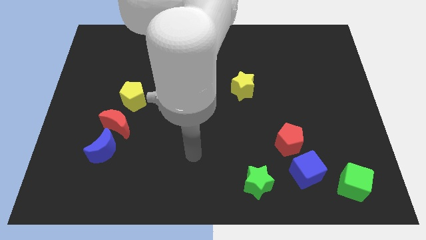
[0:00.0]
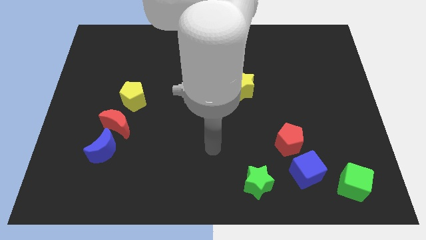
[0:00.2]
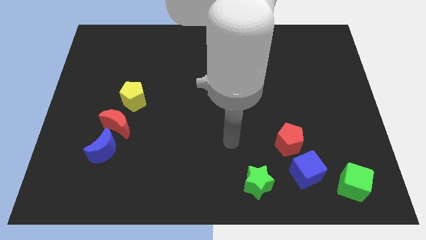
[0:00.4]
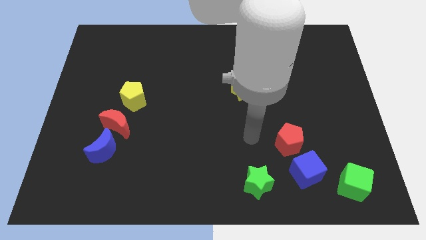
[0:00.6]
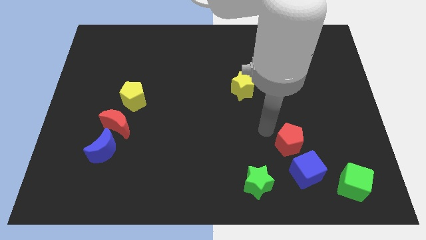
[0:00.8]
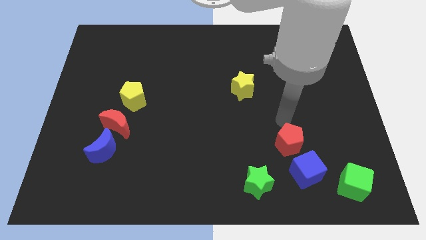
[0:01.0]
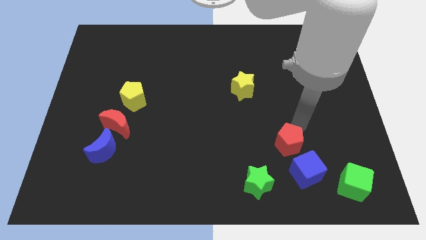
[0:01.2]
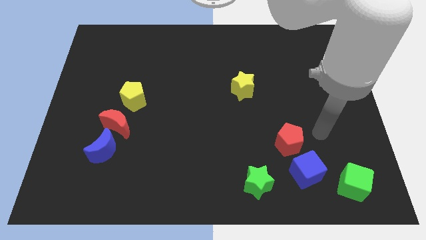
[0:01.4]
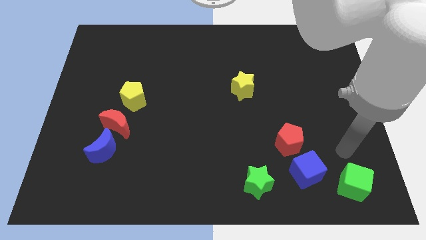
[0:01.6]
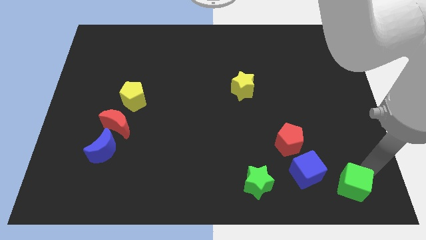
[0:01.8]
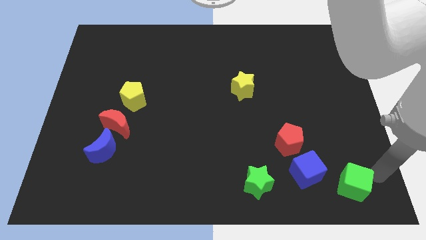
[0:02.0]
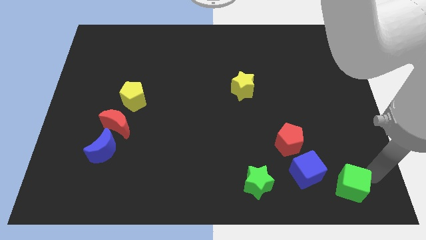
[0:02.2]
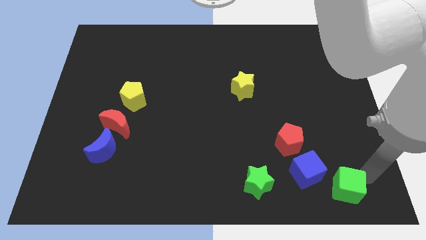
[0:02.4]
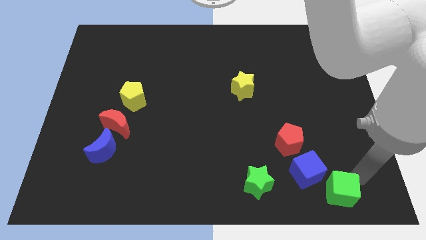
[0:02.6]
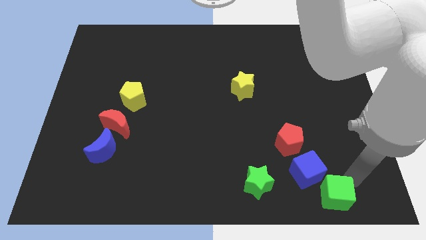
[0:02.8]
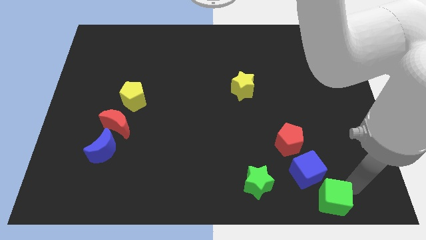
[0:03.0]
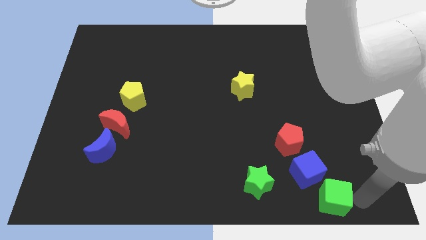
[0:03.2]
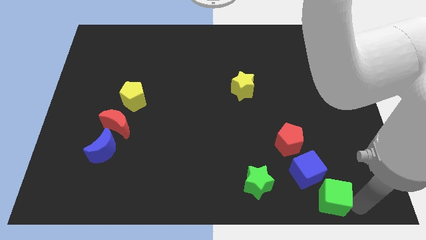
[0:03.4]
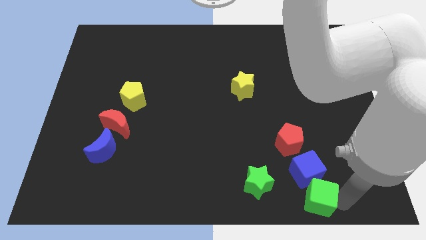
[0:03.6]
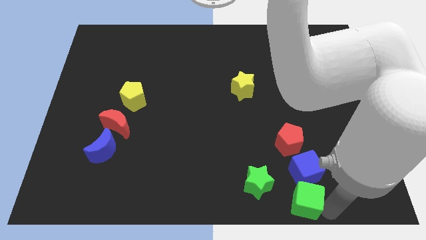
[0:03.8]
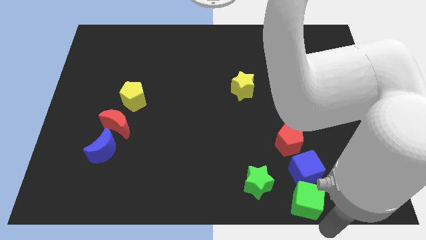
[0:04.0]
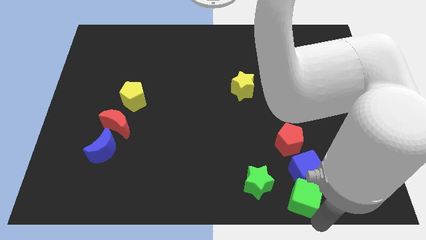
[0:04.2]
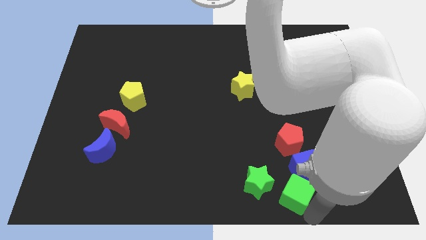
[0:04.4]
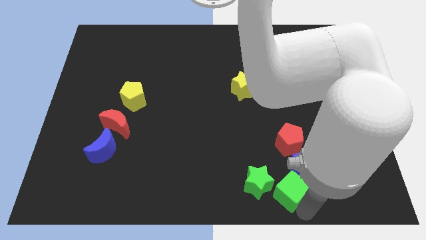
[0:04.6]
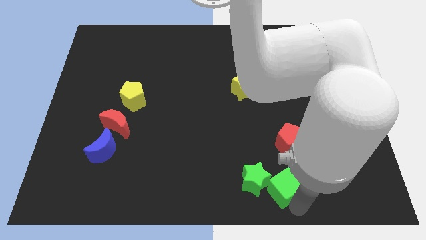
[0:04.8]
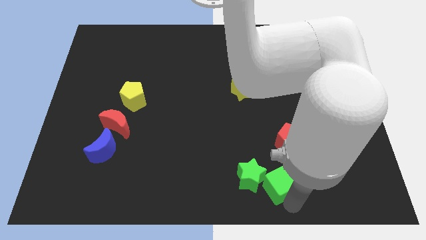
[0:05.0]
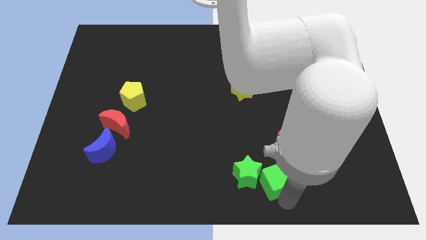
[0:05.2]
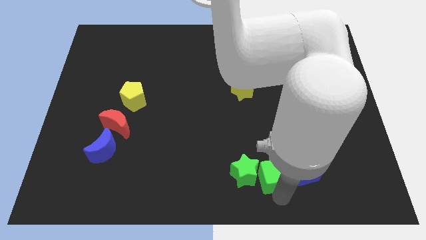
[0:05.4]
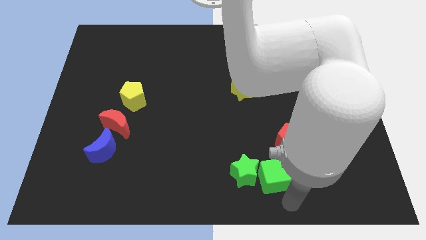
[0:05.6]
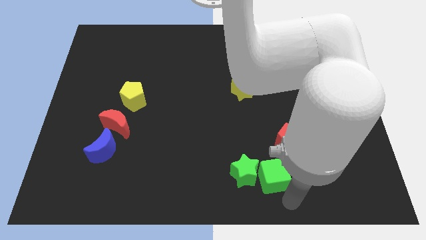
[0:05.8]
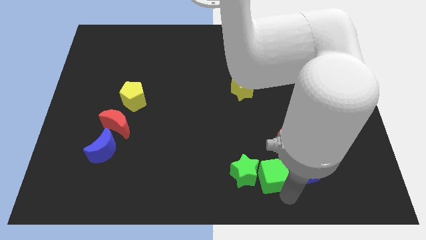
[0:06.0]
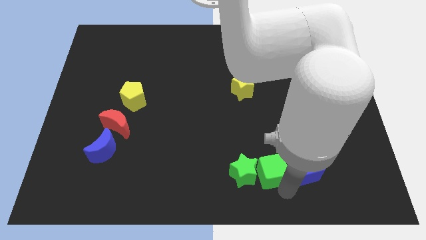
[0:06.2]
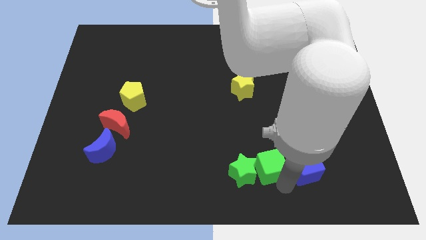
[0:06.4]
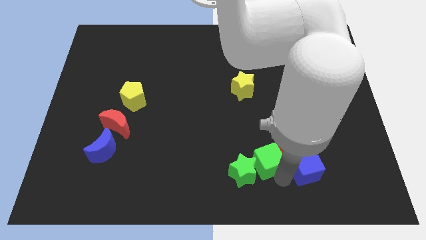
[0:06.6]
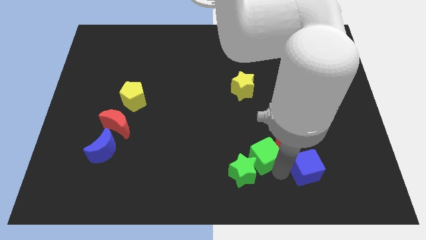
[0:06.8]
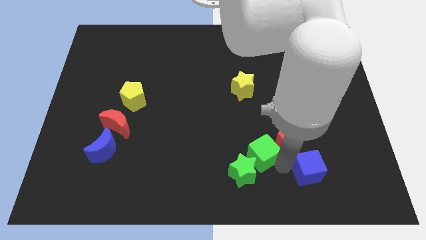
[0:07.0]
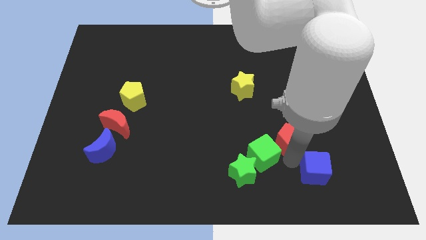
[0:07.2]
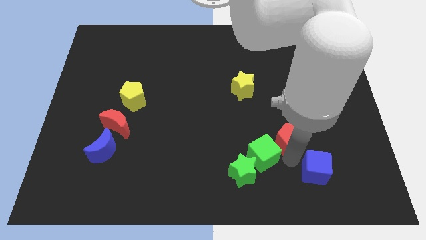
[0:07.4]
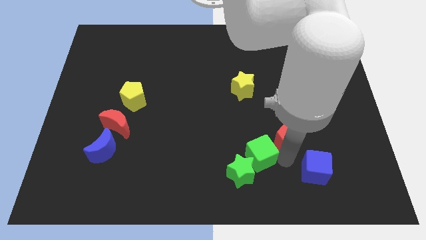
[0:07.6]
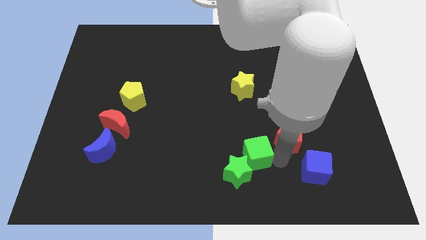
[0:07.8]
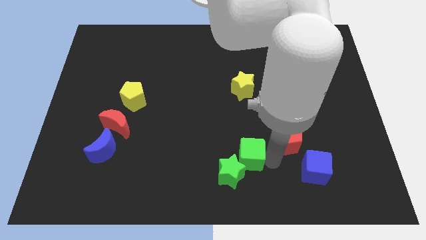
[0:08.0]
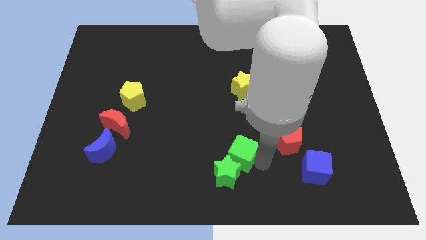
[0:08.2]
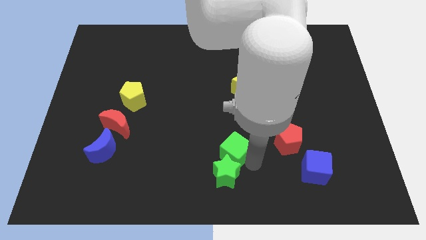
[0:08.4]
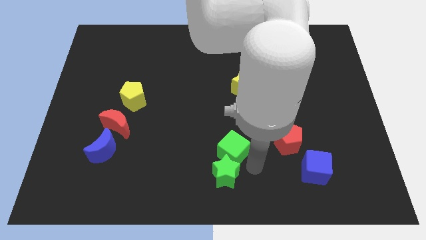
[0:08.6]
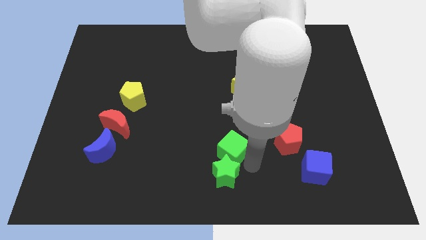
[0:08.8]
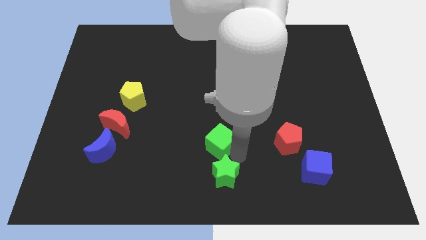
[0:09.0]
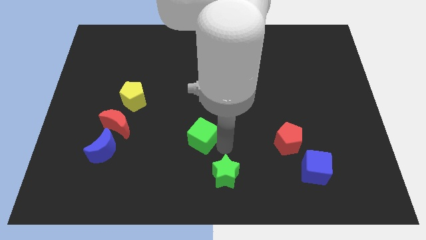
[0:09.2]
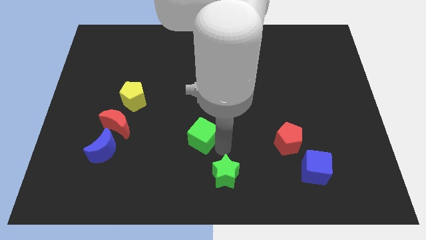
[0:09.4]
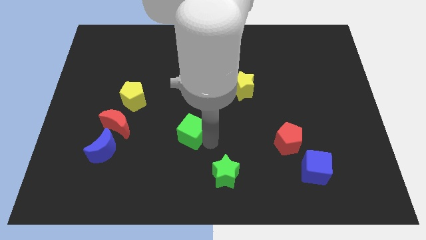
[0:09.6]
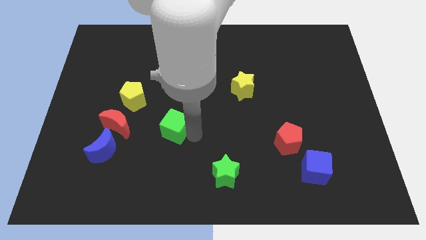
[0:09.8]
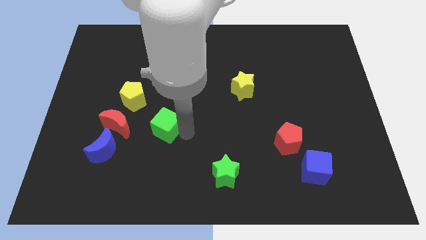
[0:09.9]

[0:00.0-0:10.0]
push the green cube diagonally down and to the right of the yellow pentagon

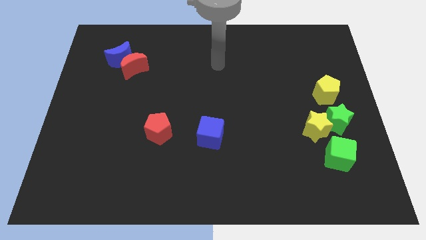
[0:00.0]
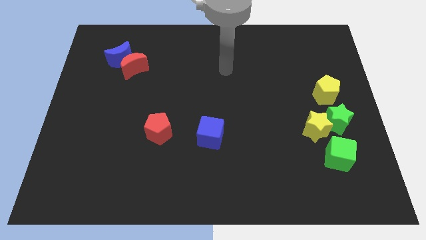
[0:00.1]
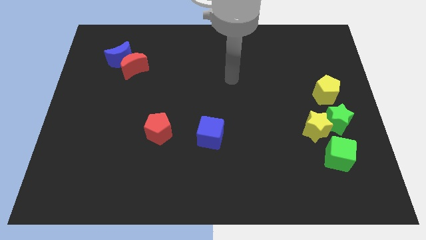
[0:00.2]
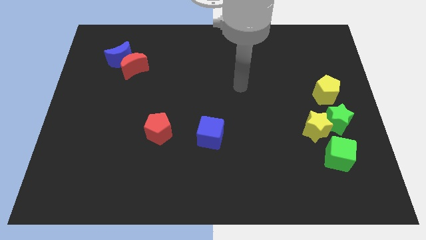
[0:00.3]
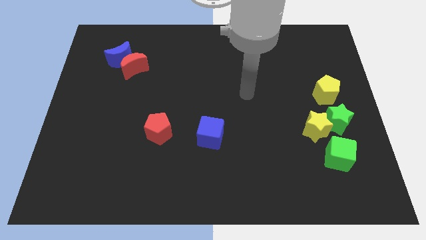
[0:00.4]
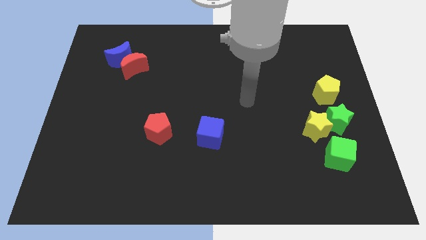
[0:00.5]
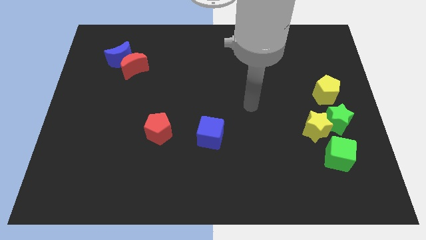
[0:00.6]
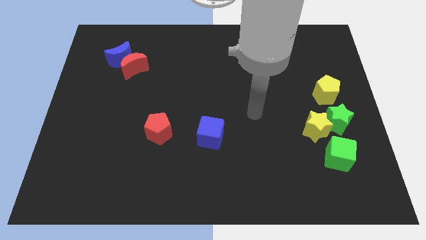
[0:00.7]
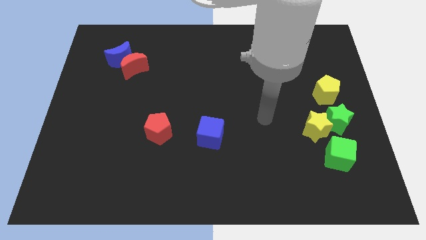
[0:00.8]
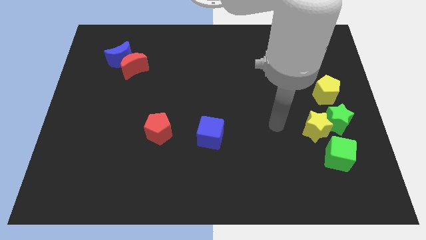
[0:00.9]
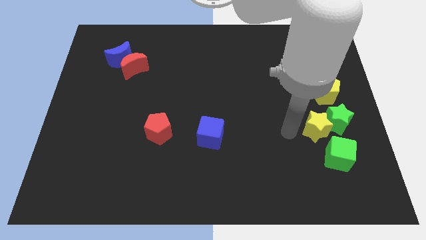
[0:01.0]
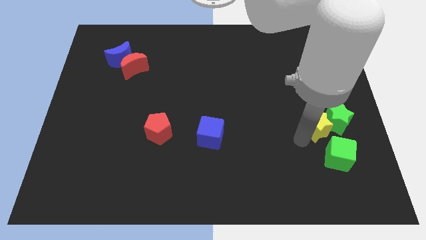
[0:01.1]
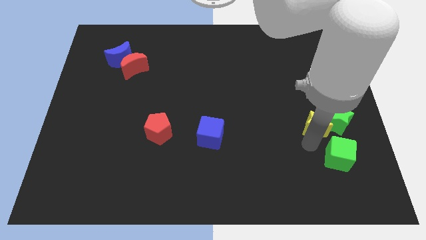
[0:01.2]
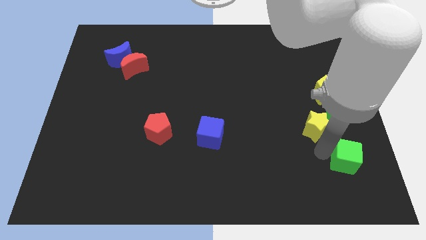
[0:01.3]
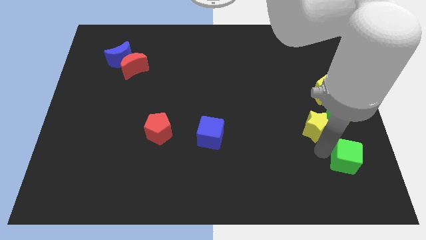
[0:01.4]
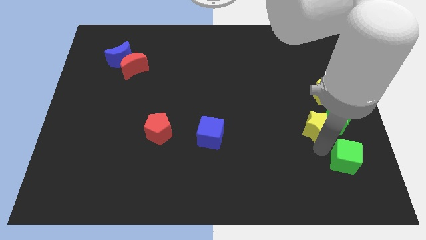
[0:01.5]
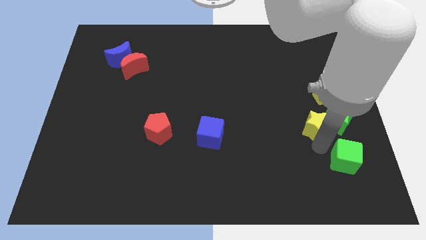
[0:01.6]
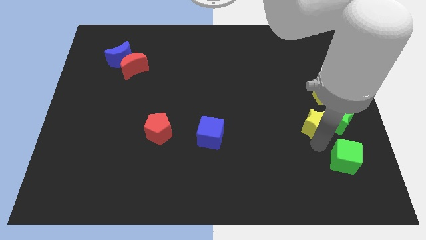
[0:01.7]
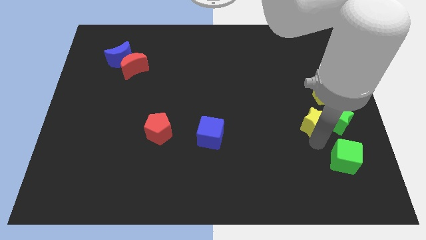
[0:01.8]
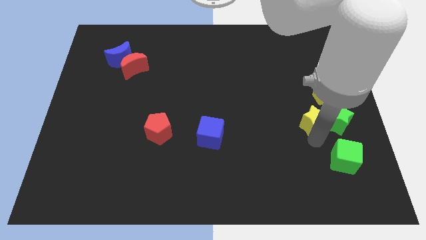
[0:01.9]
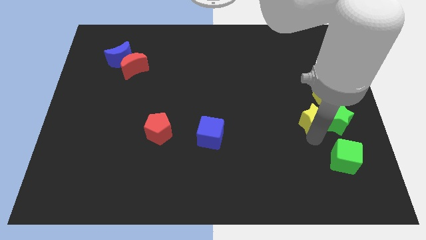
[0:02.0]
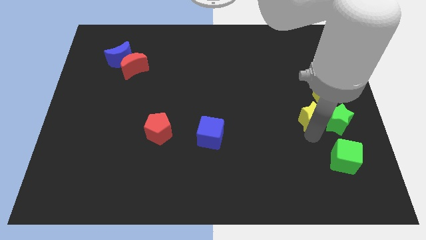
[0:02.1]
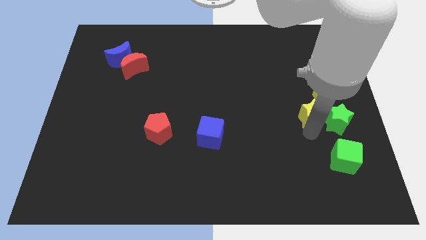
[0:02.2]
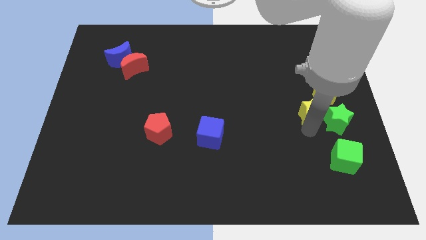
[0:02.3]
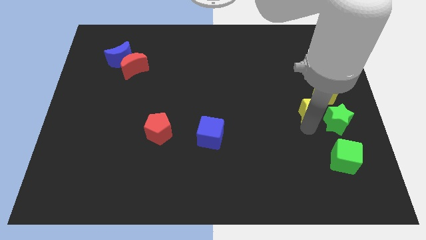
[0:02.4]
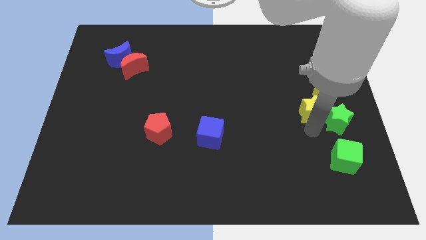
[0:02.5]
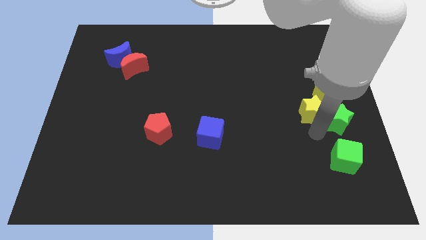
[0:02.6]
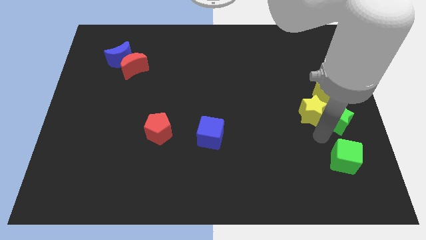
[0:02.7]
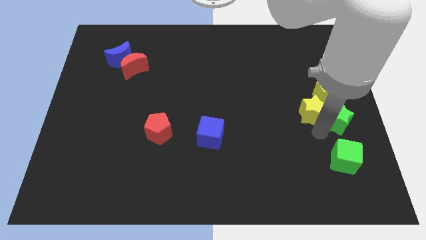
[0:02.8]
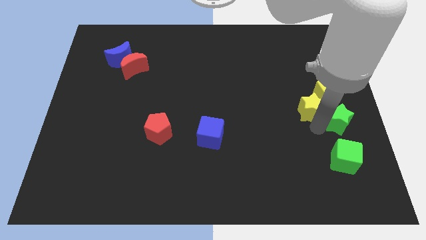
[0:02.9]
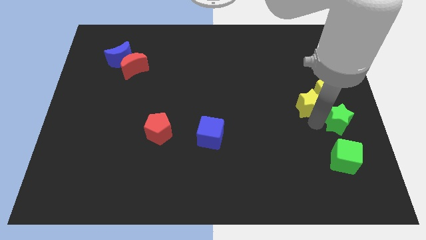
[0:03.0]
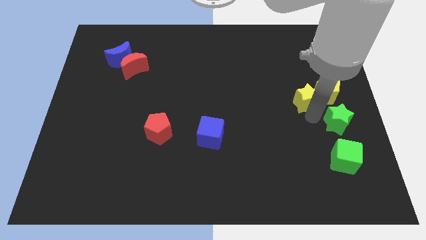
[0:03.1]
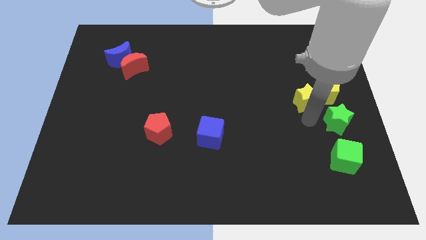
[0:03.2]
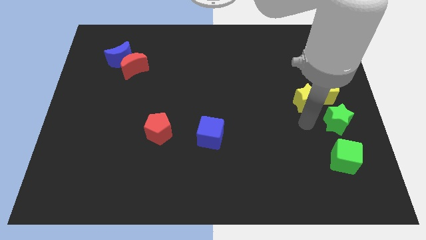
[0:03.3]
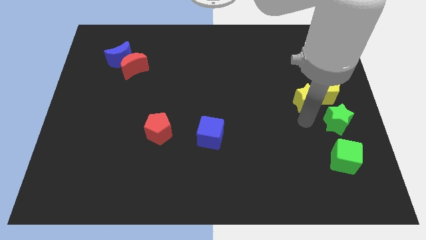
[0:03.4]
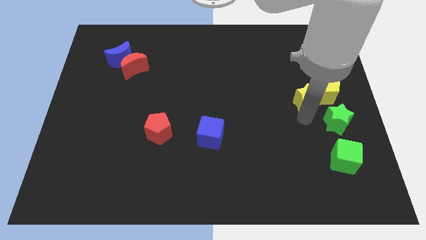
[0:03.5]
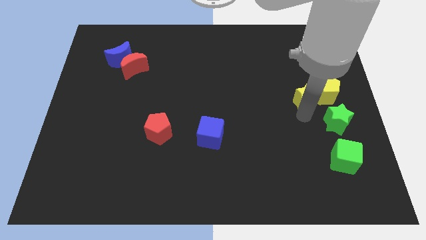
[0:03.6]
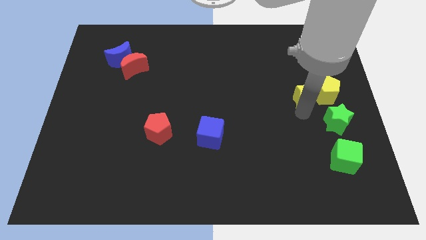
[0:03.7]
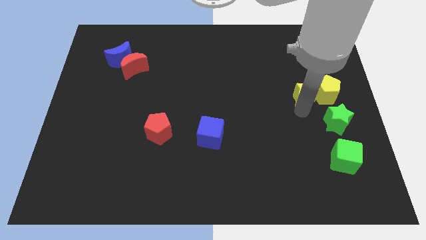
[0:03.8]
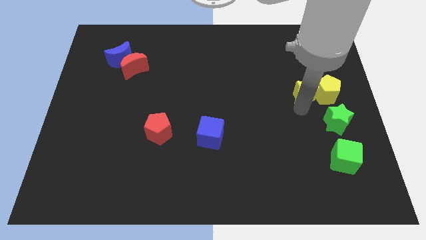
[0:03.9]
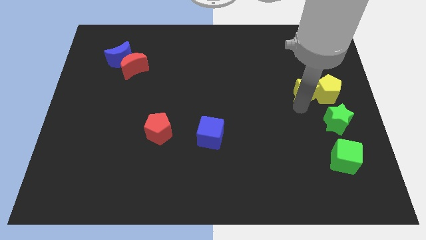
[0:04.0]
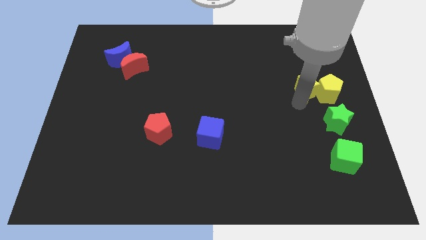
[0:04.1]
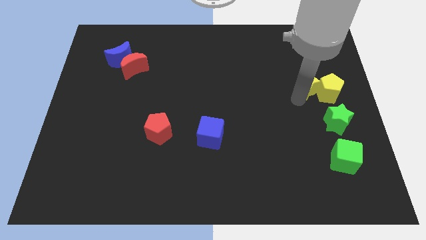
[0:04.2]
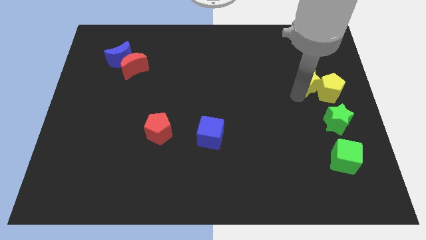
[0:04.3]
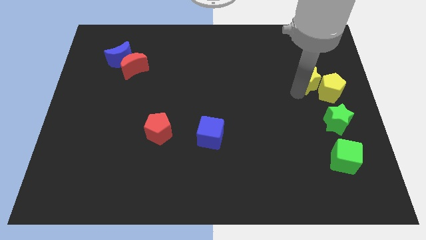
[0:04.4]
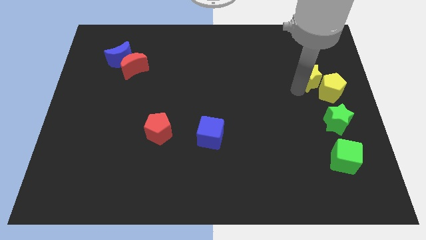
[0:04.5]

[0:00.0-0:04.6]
push the yellow star to the top of the yellow pentagon
